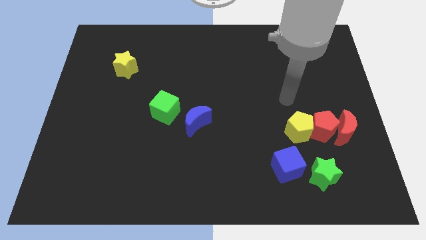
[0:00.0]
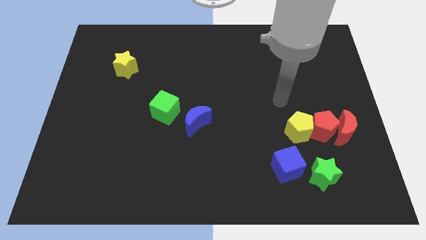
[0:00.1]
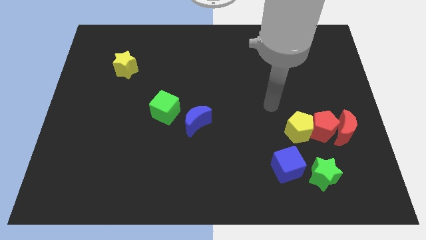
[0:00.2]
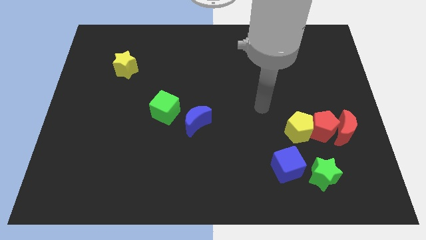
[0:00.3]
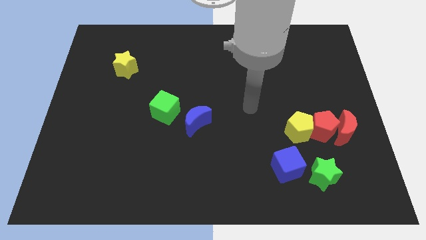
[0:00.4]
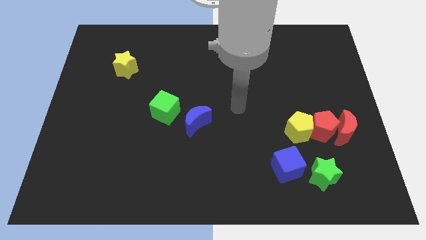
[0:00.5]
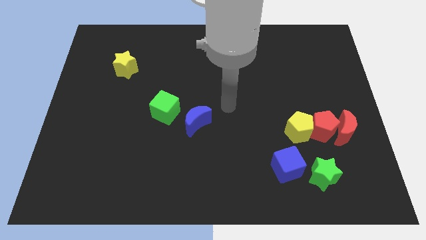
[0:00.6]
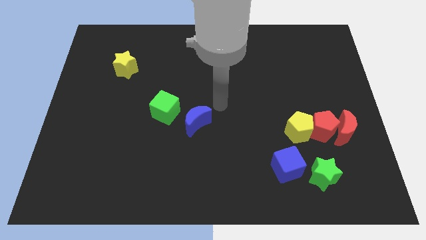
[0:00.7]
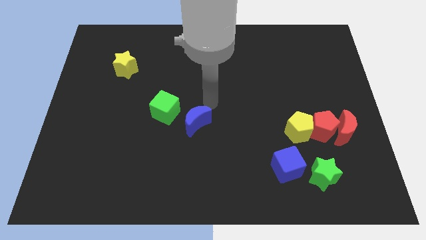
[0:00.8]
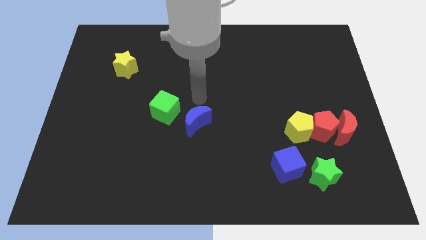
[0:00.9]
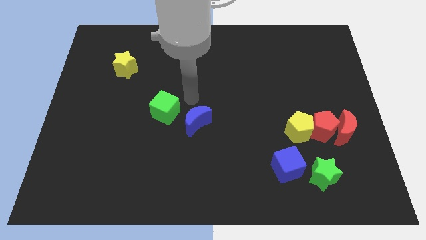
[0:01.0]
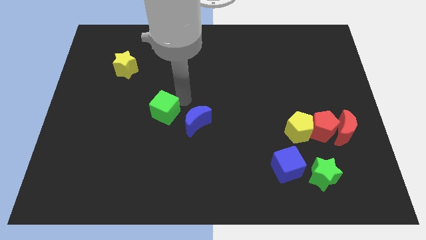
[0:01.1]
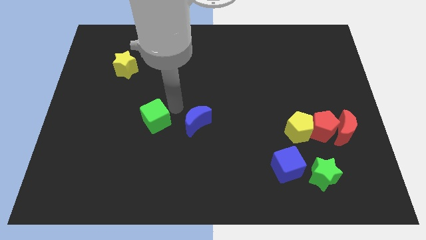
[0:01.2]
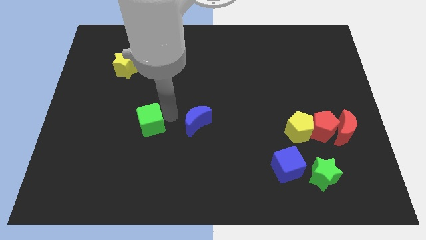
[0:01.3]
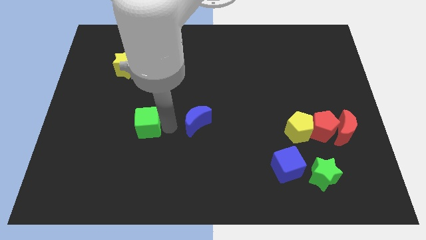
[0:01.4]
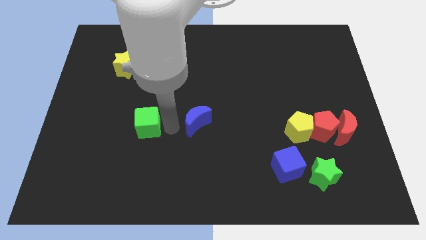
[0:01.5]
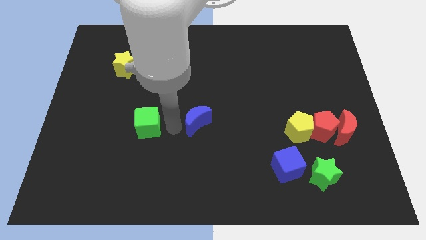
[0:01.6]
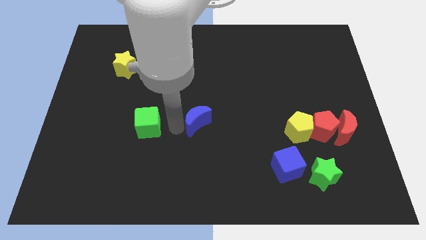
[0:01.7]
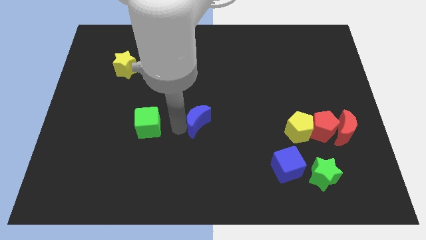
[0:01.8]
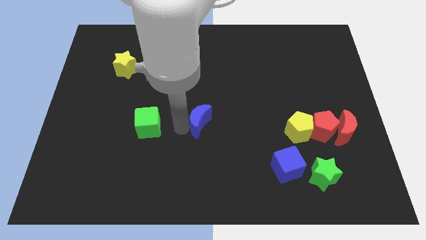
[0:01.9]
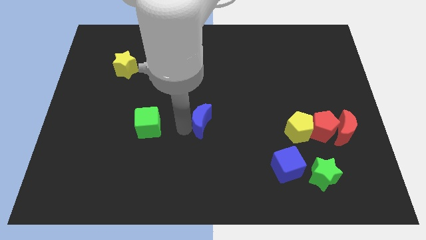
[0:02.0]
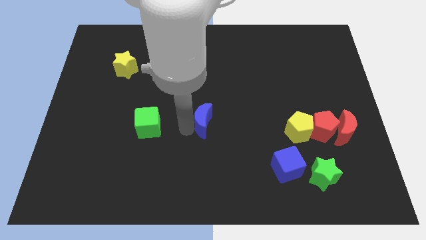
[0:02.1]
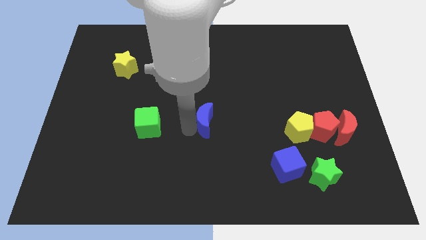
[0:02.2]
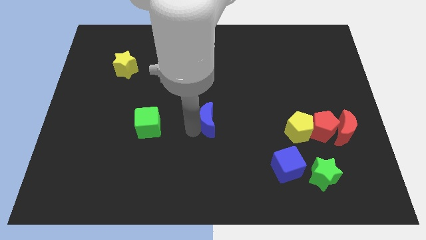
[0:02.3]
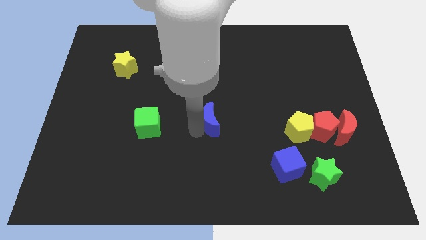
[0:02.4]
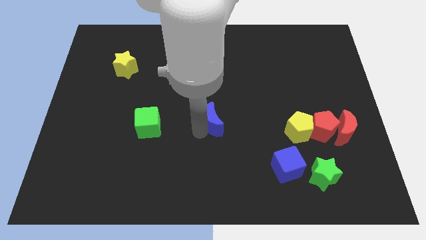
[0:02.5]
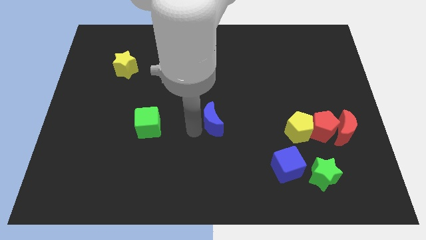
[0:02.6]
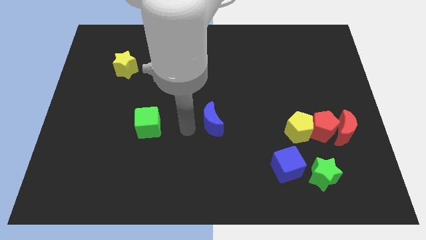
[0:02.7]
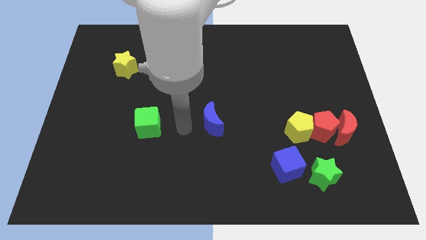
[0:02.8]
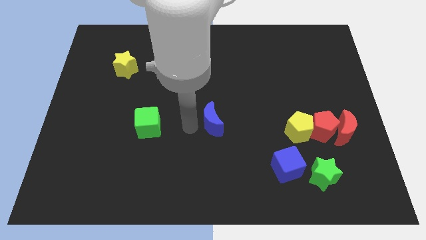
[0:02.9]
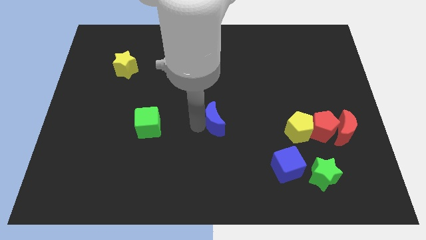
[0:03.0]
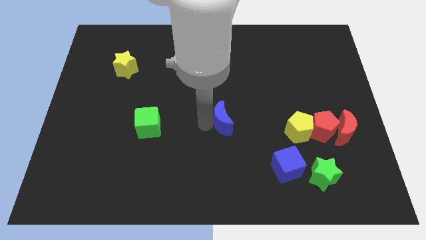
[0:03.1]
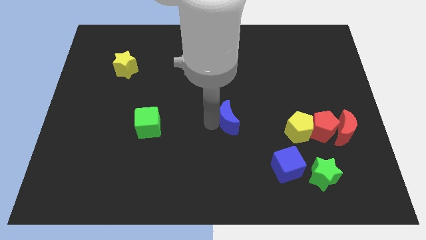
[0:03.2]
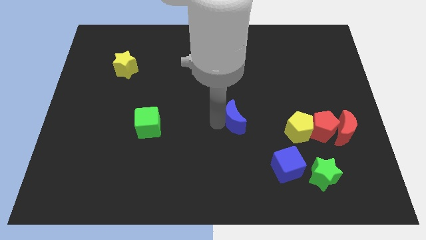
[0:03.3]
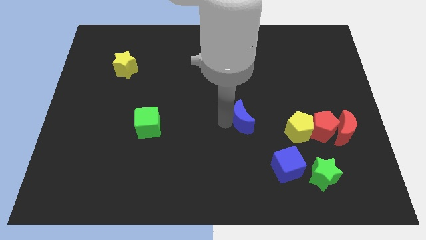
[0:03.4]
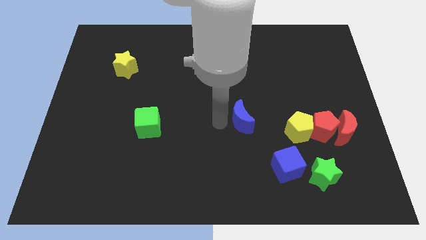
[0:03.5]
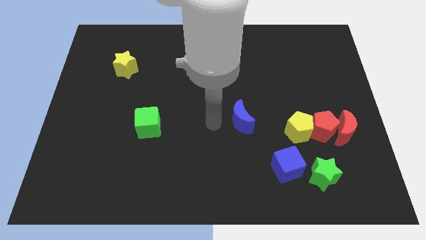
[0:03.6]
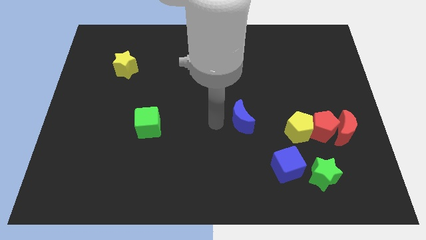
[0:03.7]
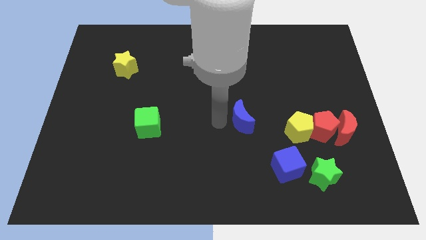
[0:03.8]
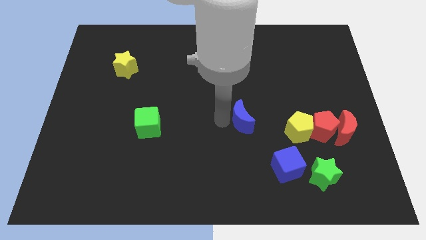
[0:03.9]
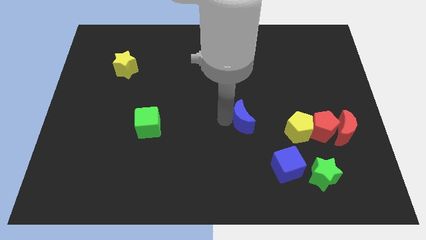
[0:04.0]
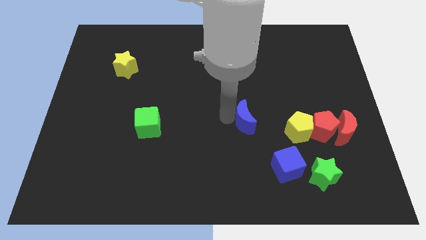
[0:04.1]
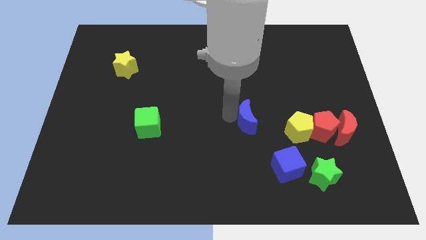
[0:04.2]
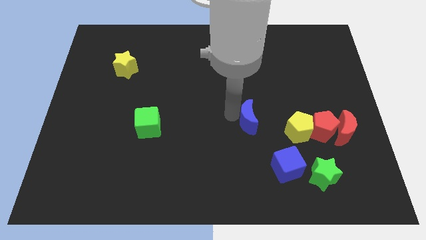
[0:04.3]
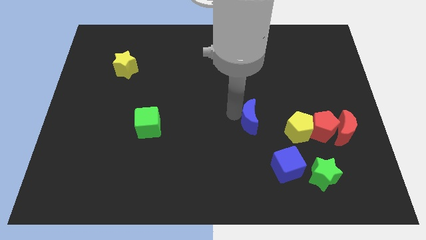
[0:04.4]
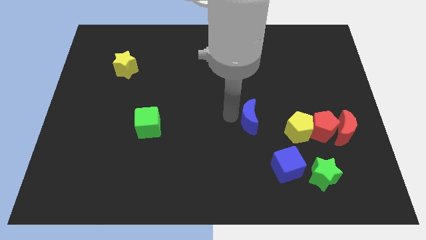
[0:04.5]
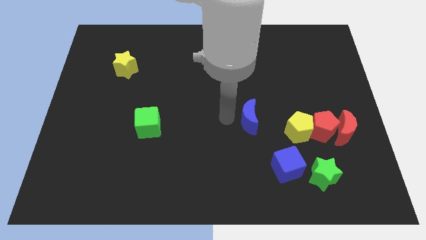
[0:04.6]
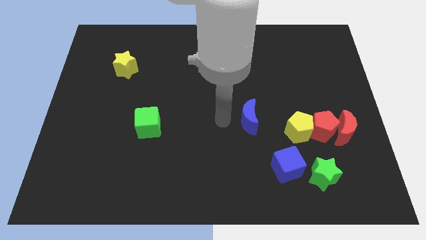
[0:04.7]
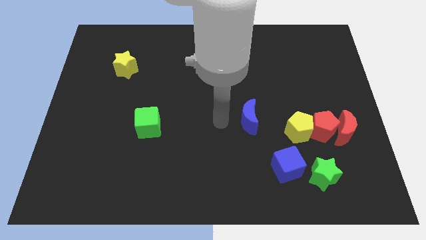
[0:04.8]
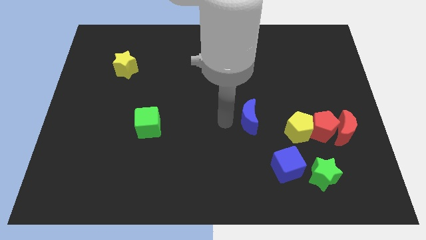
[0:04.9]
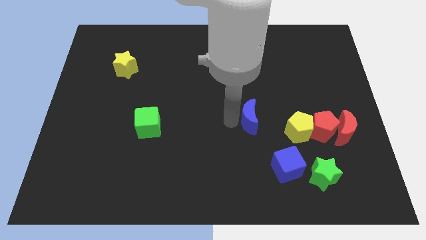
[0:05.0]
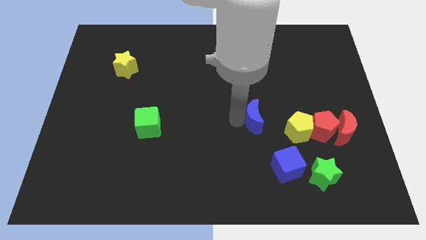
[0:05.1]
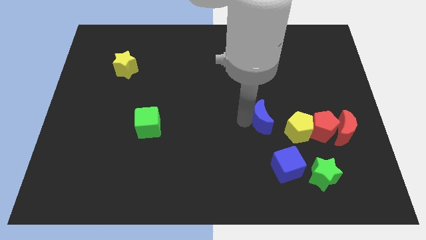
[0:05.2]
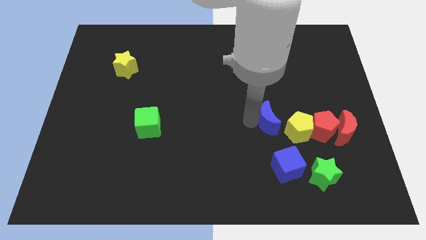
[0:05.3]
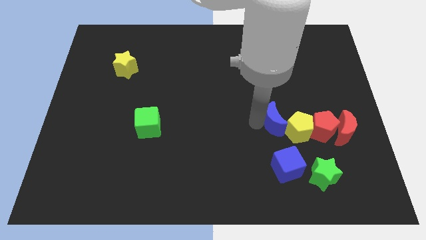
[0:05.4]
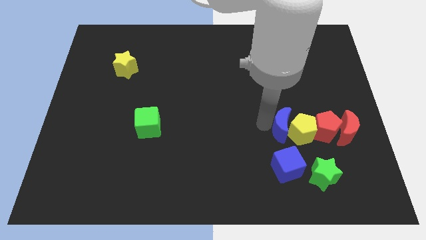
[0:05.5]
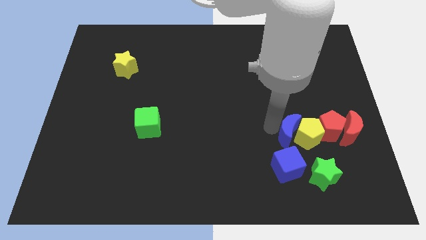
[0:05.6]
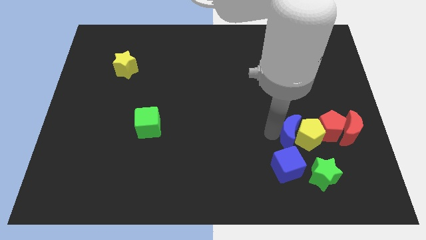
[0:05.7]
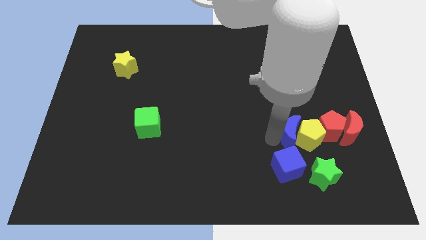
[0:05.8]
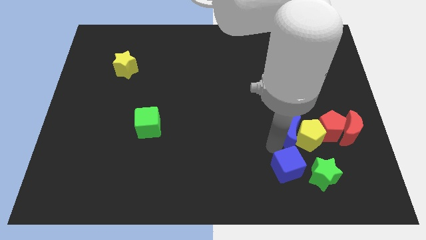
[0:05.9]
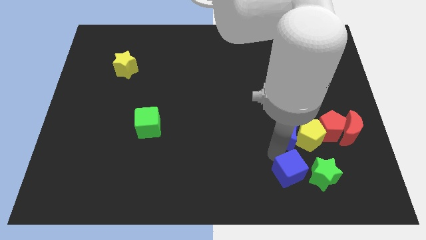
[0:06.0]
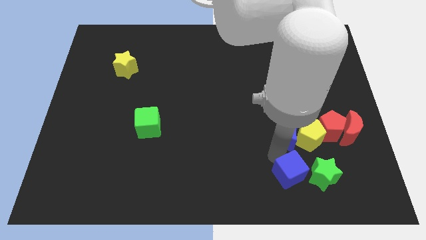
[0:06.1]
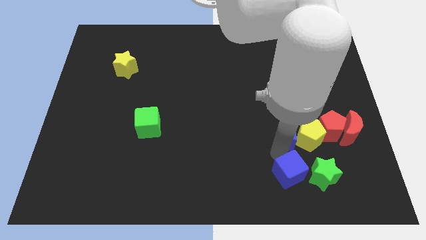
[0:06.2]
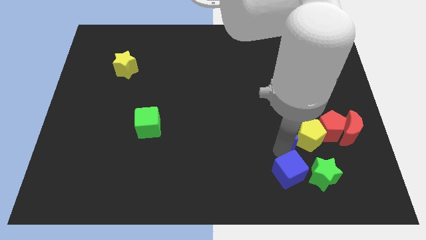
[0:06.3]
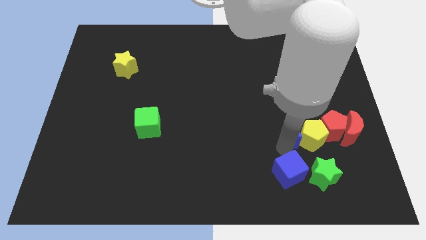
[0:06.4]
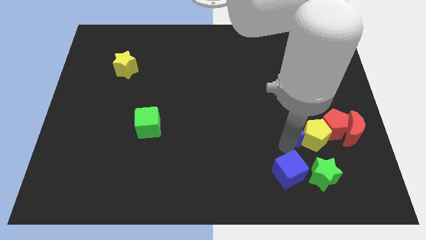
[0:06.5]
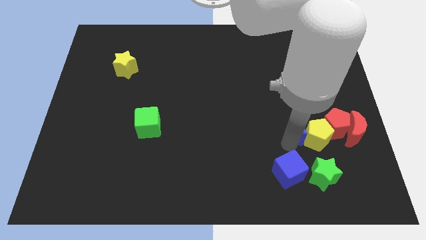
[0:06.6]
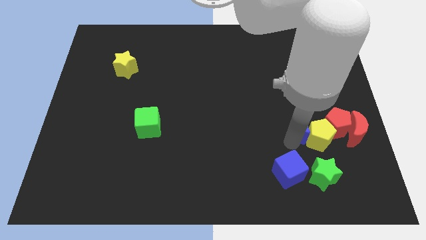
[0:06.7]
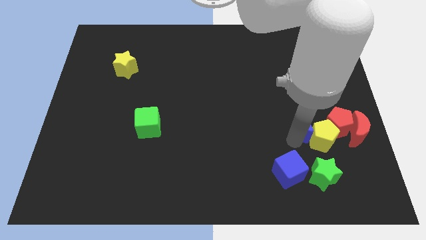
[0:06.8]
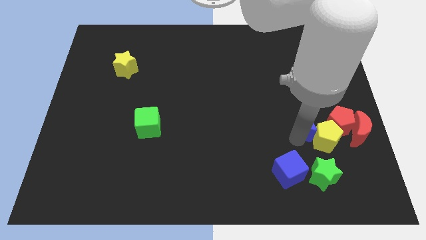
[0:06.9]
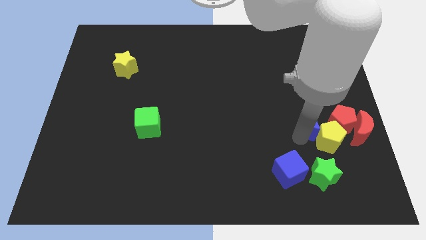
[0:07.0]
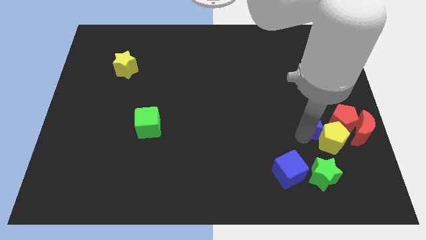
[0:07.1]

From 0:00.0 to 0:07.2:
put the blue moon diagonally up and to the left of the red pentagon
